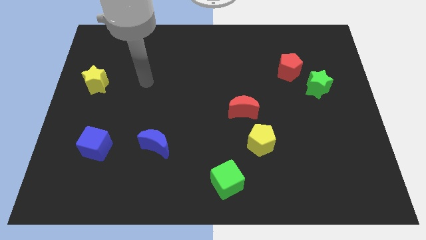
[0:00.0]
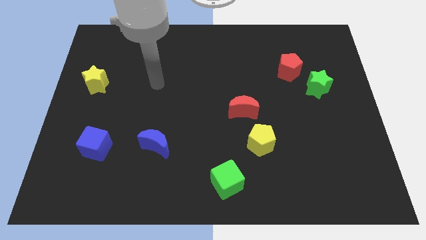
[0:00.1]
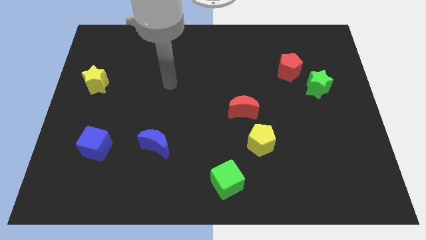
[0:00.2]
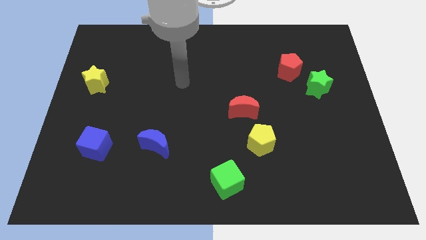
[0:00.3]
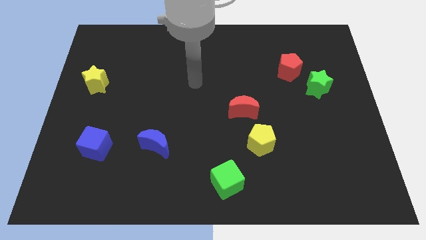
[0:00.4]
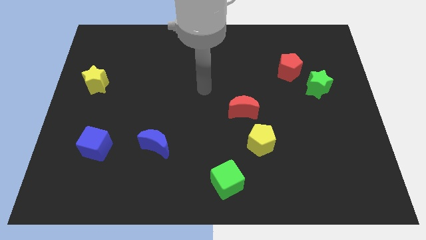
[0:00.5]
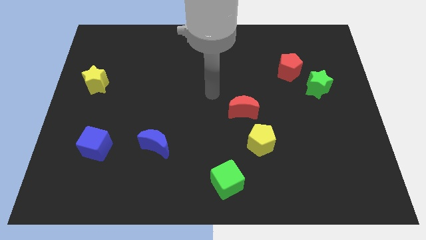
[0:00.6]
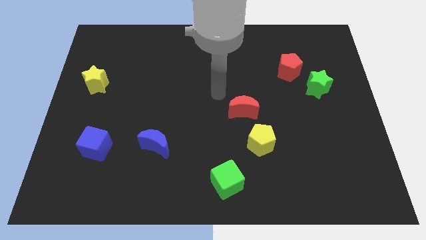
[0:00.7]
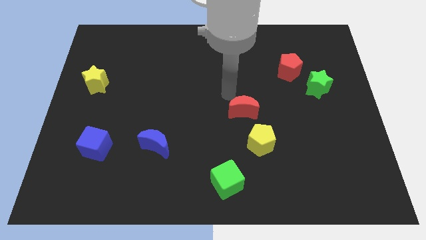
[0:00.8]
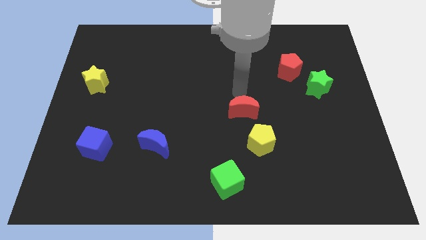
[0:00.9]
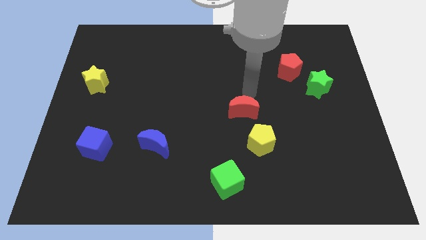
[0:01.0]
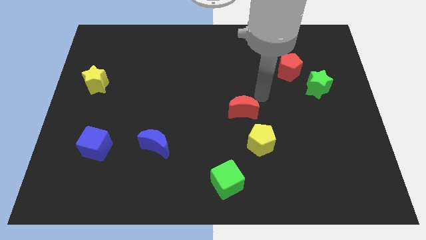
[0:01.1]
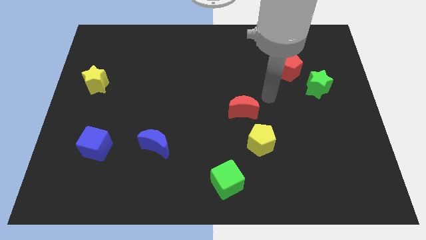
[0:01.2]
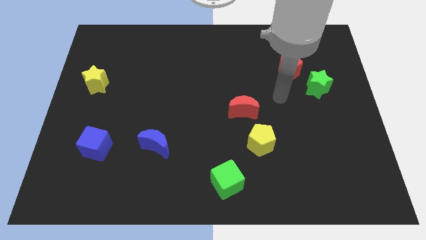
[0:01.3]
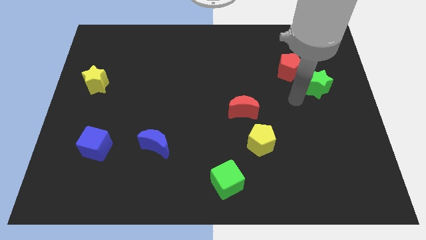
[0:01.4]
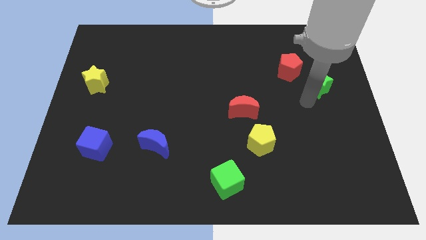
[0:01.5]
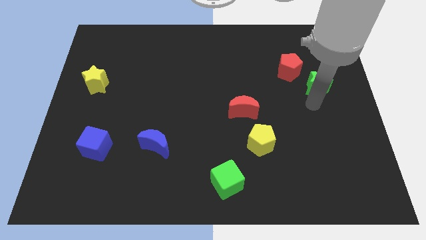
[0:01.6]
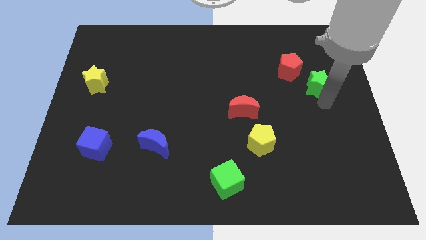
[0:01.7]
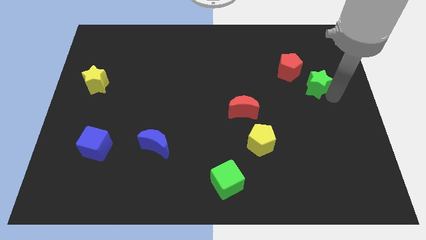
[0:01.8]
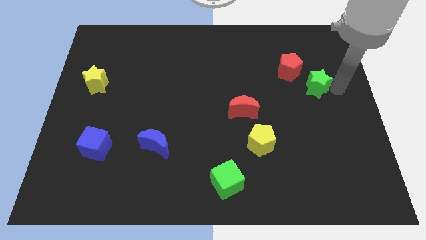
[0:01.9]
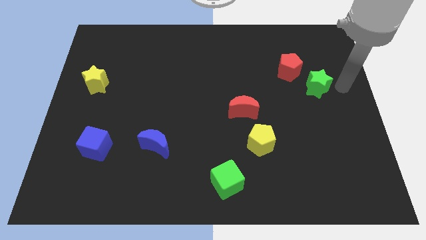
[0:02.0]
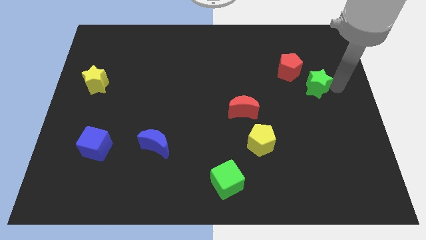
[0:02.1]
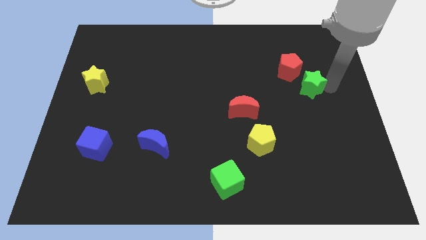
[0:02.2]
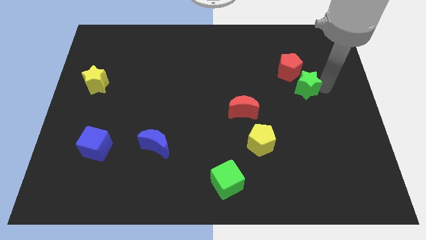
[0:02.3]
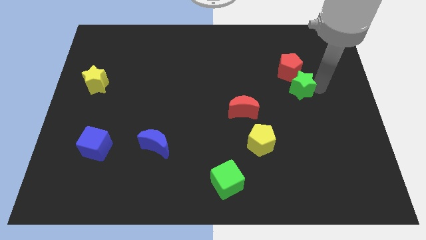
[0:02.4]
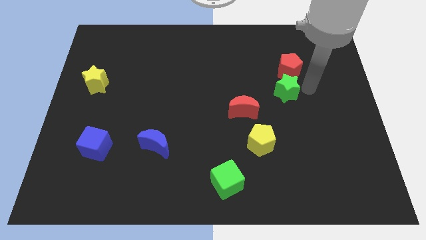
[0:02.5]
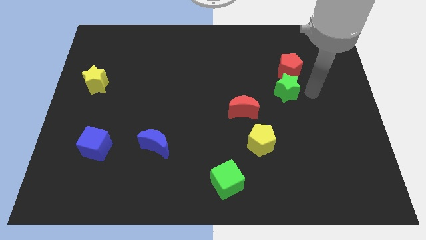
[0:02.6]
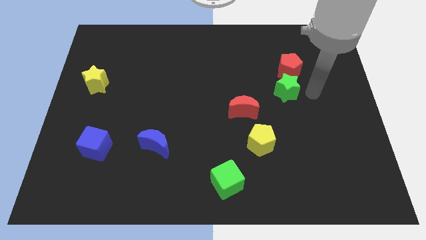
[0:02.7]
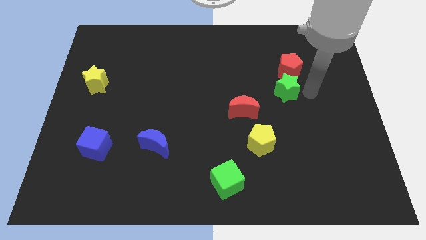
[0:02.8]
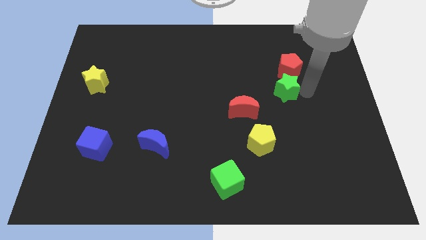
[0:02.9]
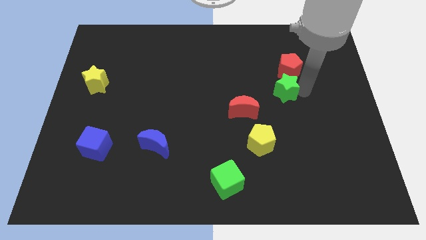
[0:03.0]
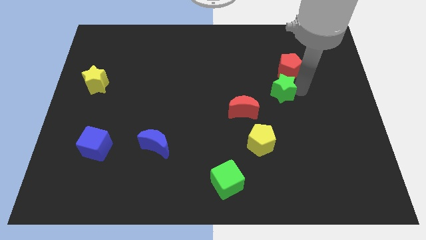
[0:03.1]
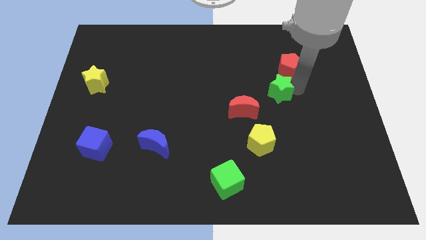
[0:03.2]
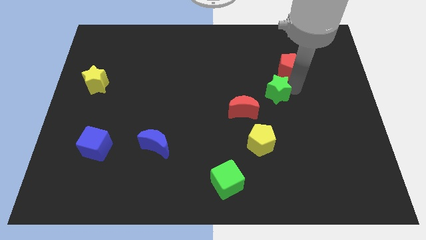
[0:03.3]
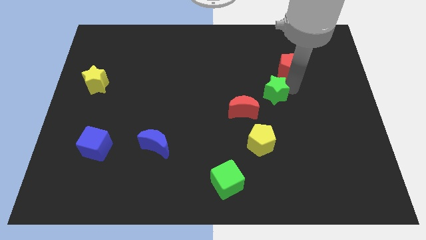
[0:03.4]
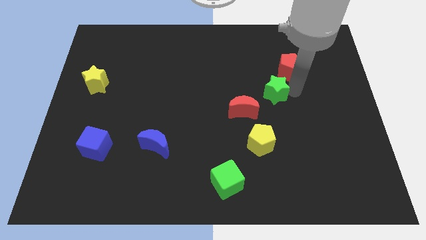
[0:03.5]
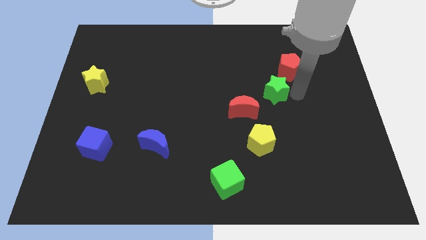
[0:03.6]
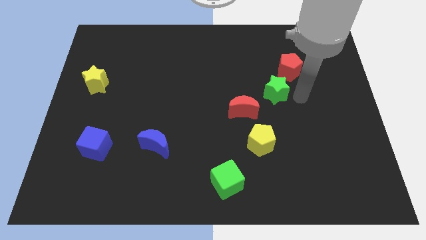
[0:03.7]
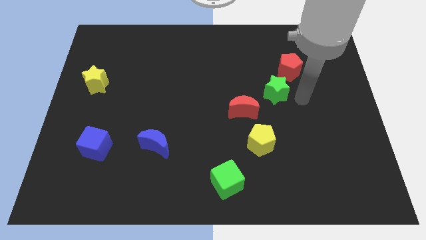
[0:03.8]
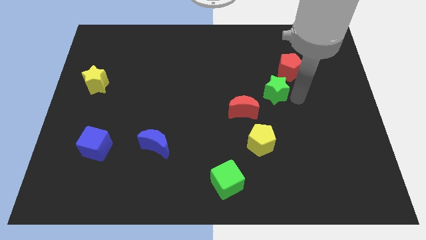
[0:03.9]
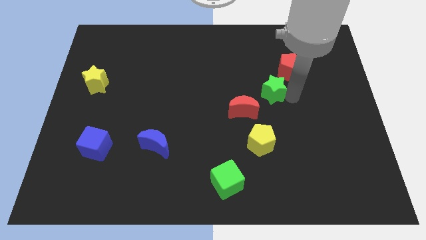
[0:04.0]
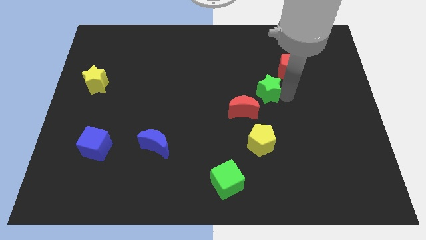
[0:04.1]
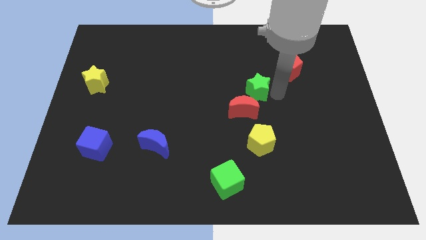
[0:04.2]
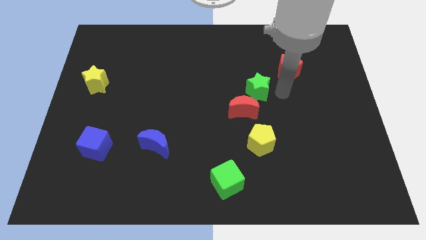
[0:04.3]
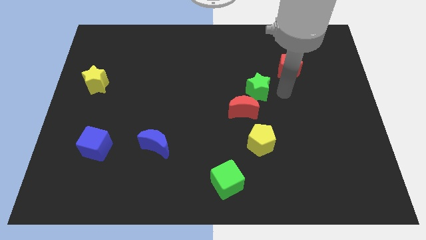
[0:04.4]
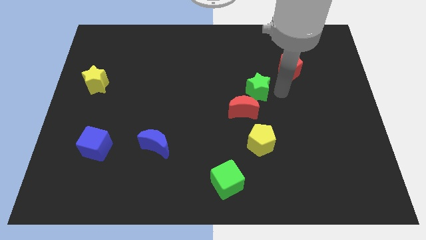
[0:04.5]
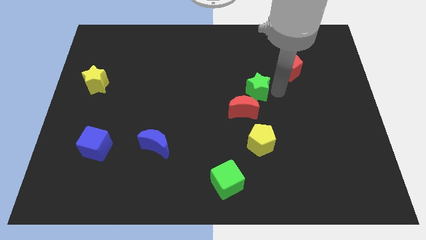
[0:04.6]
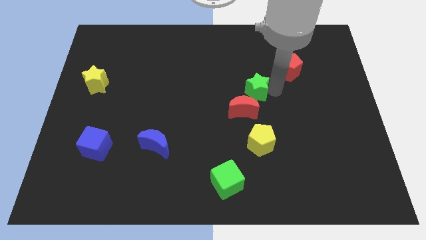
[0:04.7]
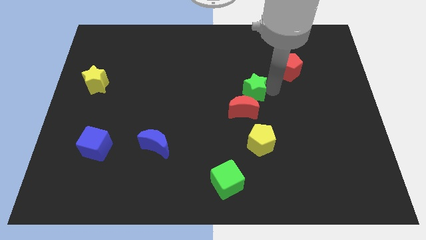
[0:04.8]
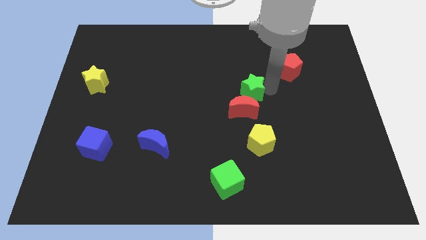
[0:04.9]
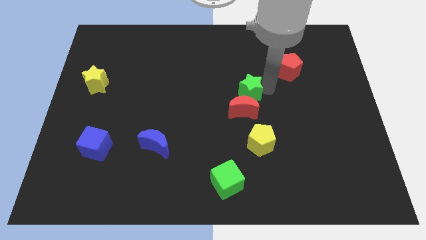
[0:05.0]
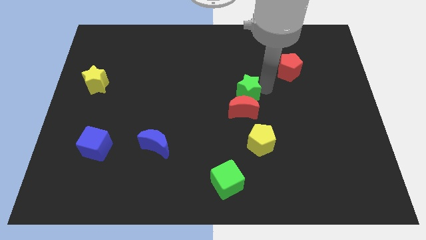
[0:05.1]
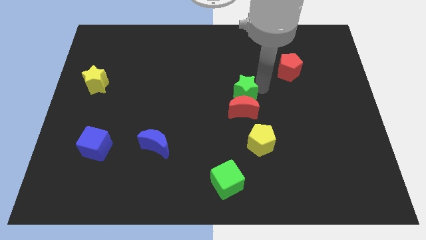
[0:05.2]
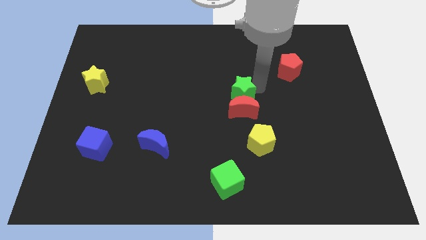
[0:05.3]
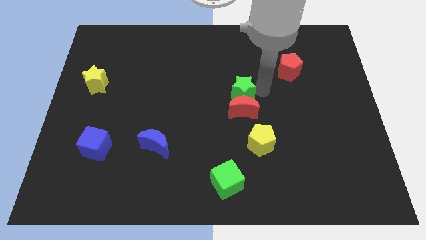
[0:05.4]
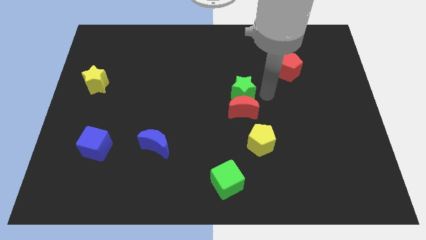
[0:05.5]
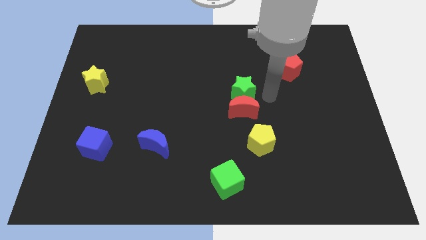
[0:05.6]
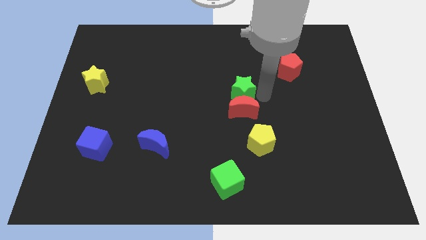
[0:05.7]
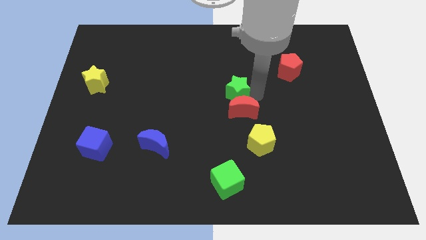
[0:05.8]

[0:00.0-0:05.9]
push the green star to the left

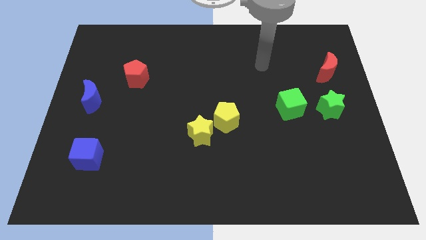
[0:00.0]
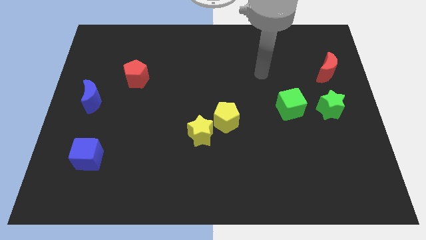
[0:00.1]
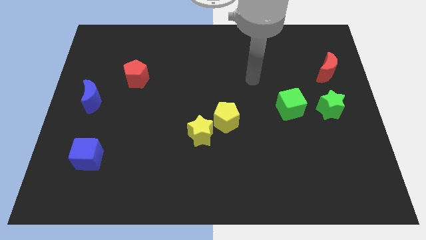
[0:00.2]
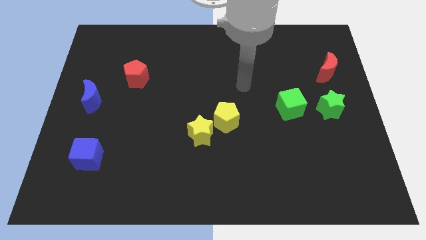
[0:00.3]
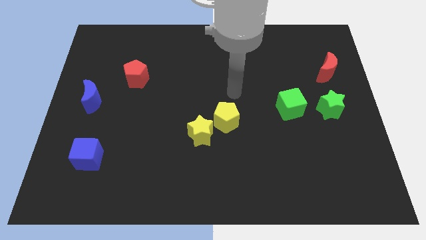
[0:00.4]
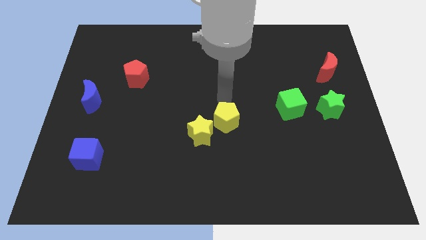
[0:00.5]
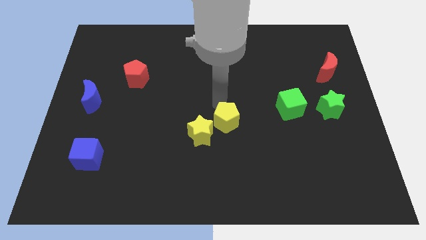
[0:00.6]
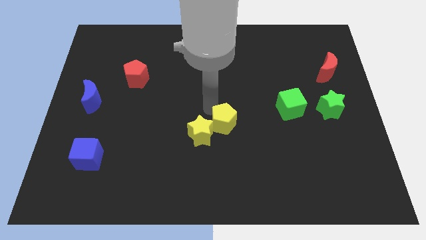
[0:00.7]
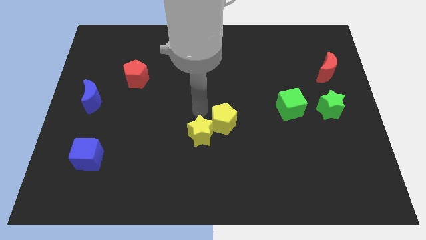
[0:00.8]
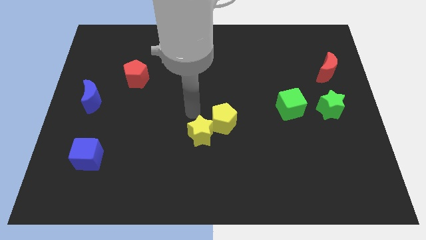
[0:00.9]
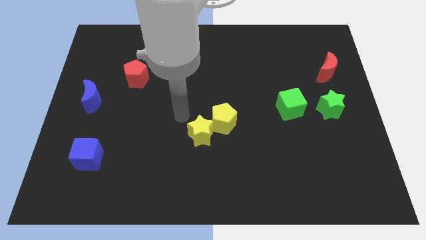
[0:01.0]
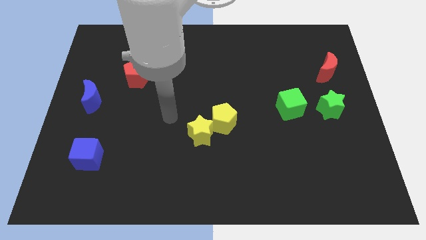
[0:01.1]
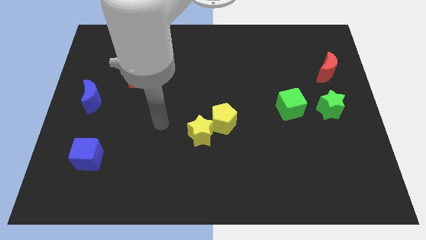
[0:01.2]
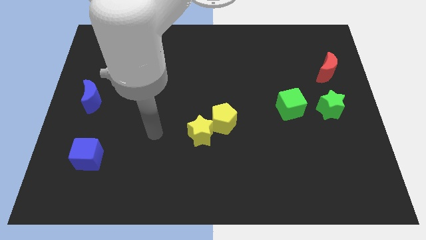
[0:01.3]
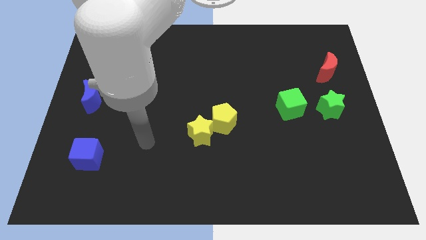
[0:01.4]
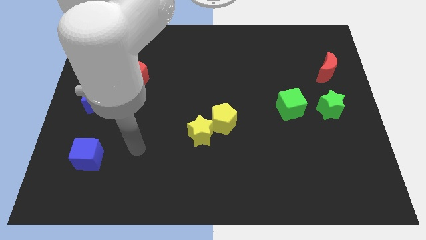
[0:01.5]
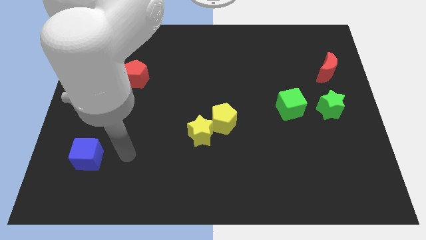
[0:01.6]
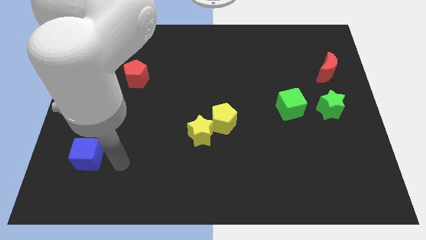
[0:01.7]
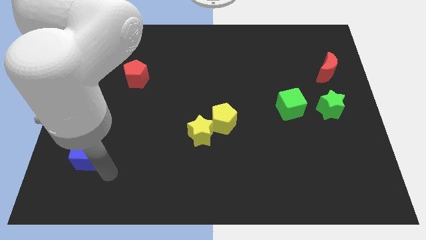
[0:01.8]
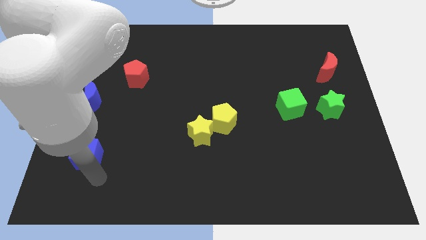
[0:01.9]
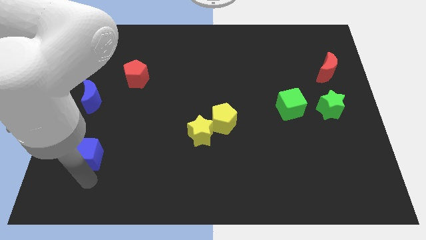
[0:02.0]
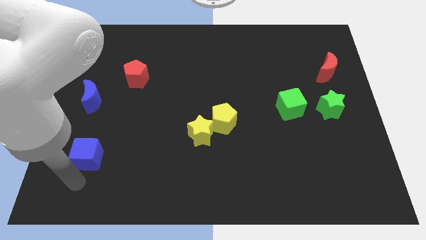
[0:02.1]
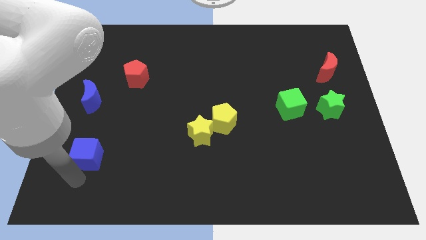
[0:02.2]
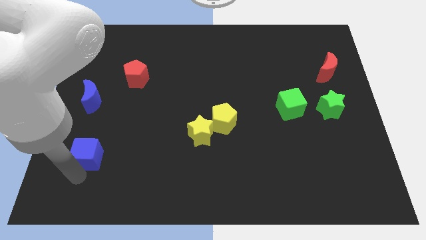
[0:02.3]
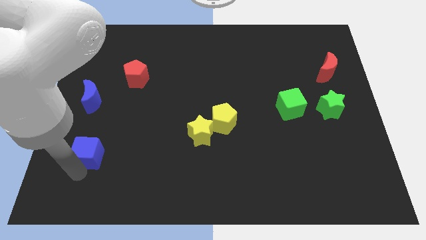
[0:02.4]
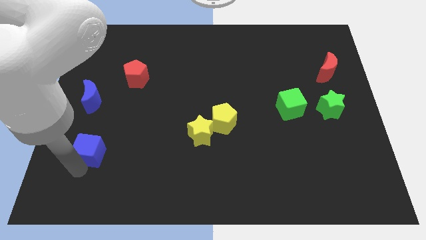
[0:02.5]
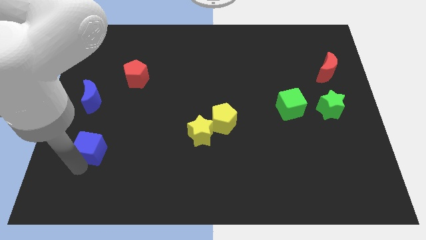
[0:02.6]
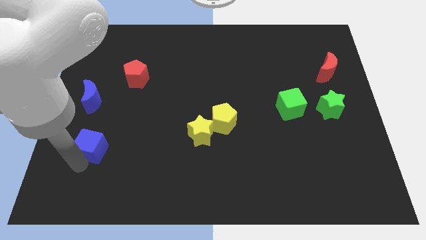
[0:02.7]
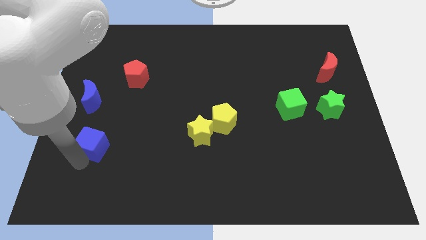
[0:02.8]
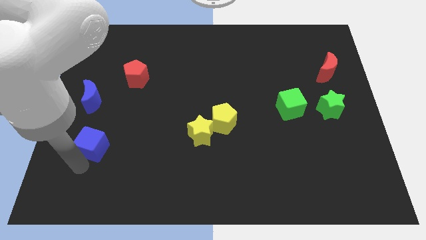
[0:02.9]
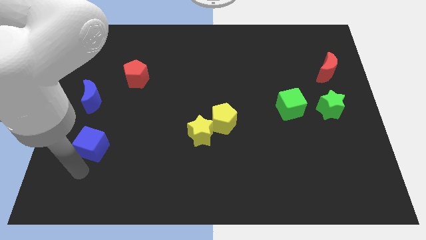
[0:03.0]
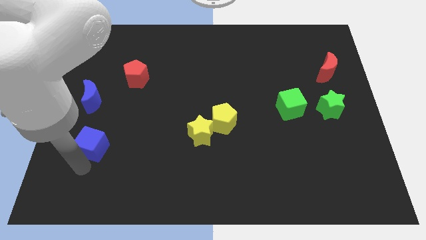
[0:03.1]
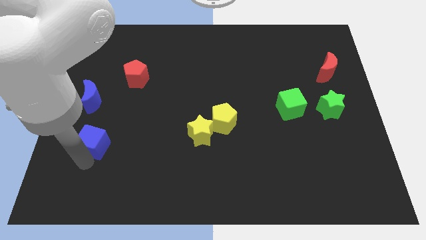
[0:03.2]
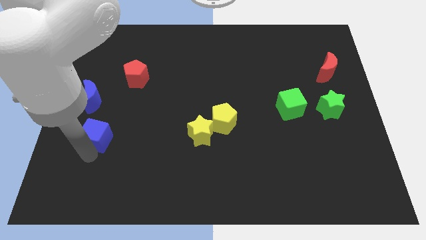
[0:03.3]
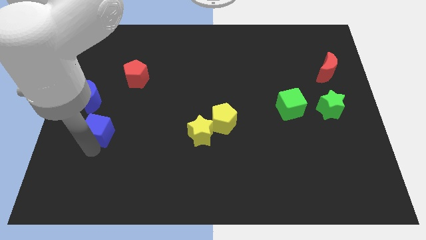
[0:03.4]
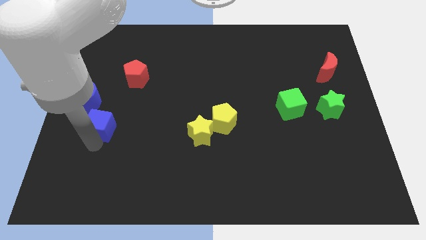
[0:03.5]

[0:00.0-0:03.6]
slide the blue cube a little upwards
